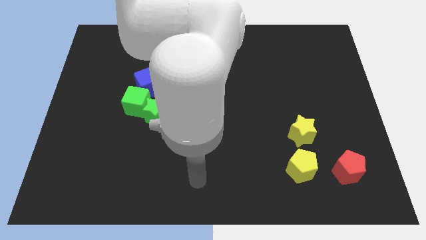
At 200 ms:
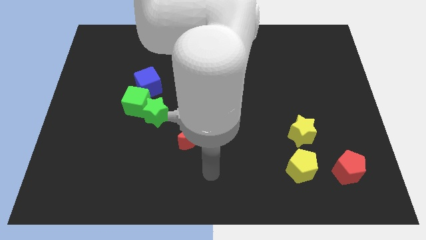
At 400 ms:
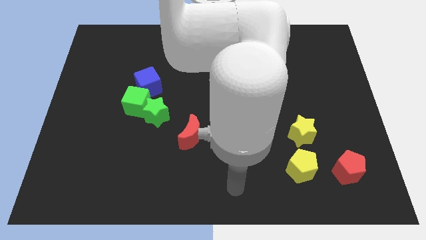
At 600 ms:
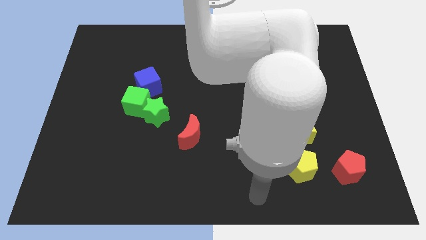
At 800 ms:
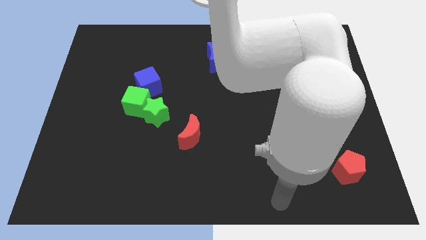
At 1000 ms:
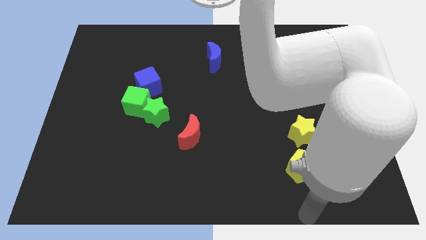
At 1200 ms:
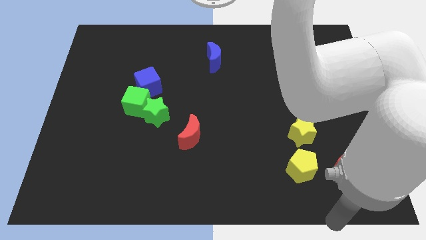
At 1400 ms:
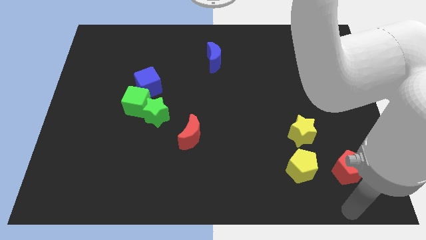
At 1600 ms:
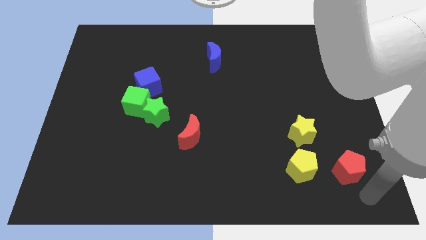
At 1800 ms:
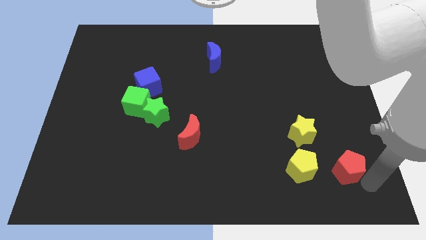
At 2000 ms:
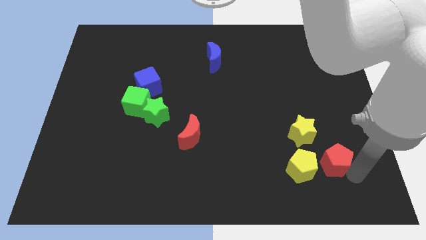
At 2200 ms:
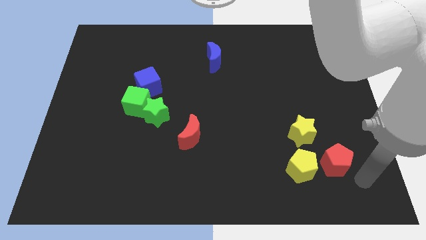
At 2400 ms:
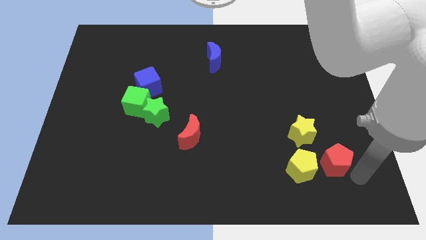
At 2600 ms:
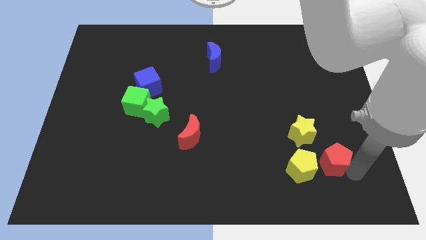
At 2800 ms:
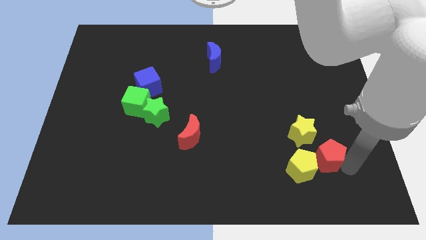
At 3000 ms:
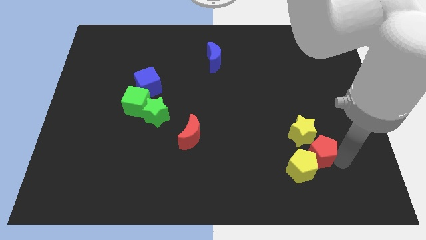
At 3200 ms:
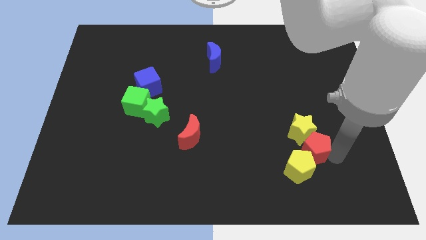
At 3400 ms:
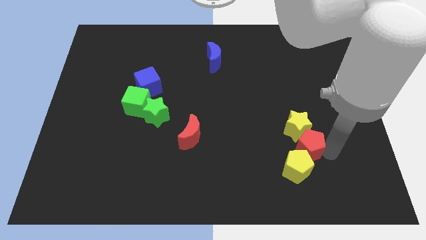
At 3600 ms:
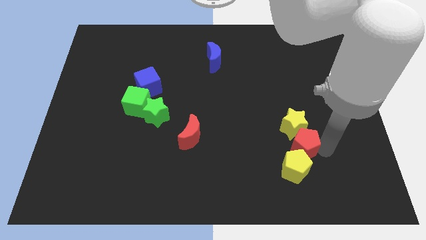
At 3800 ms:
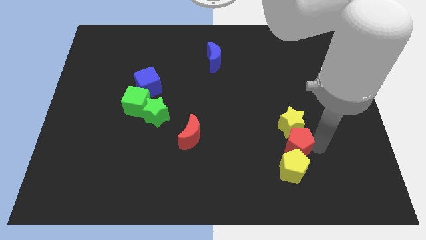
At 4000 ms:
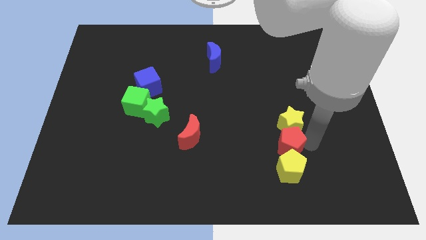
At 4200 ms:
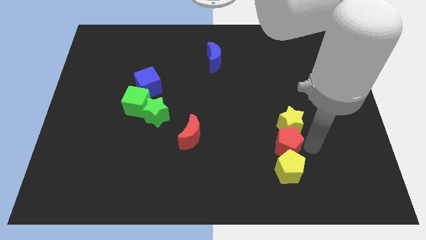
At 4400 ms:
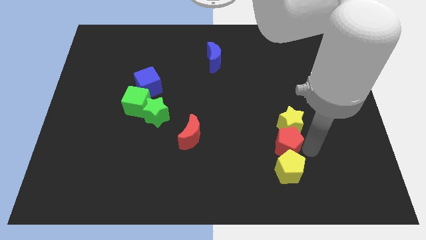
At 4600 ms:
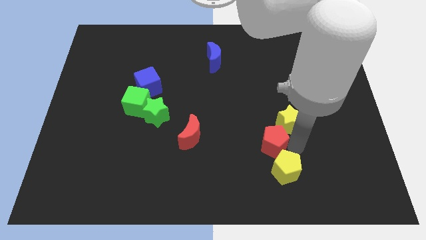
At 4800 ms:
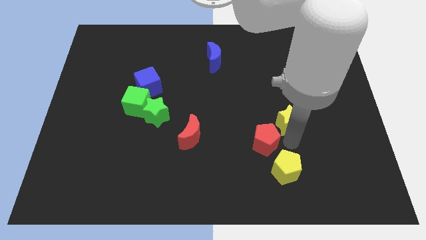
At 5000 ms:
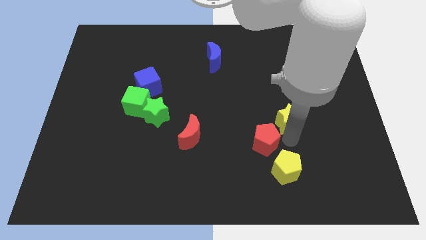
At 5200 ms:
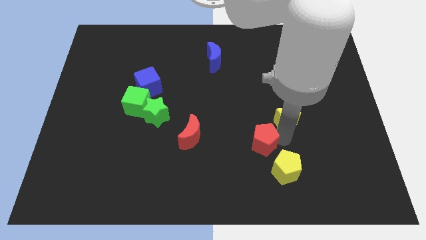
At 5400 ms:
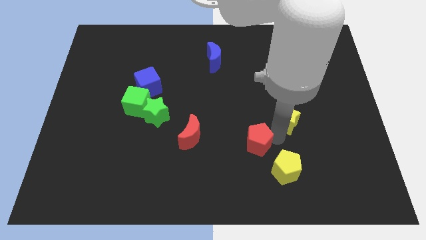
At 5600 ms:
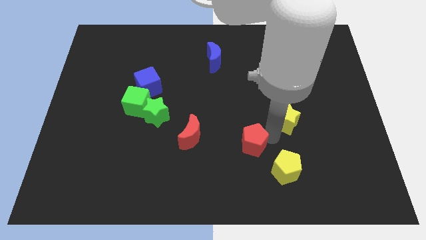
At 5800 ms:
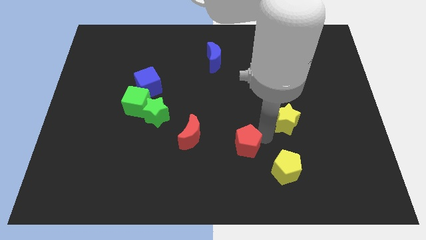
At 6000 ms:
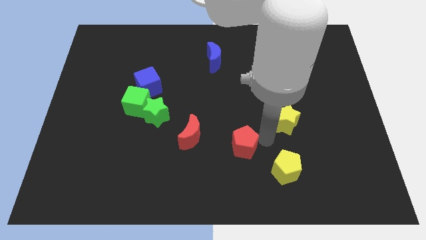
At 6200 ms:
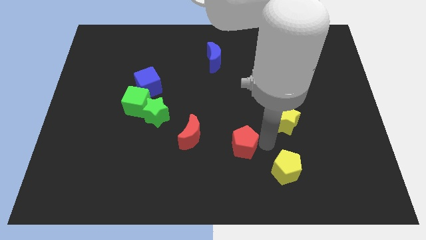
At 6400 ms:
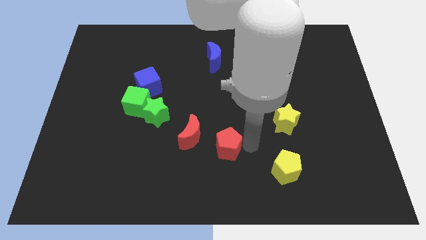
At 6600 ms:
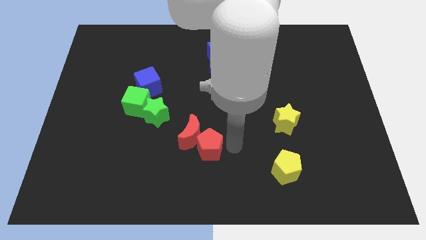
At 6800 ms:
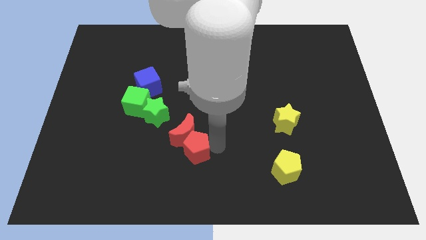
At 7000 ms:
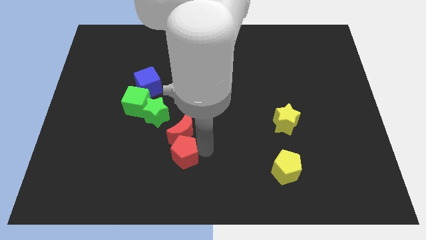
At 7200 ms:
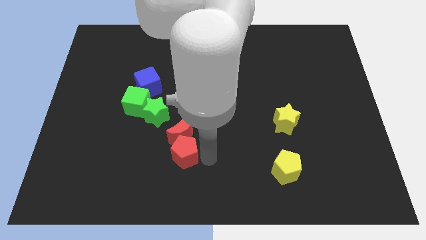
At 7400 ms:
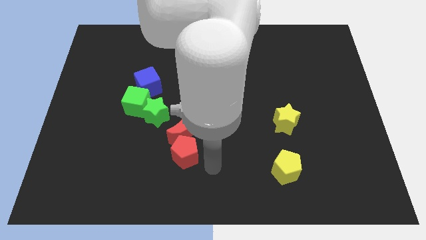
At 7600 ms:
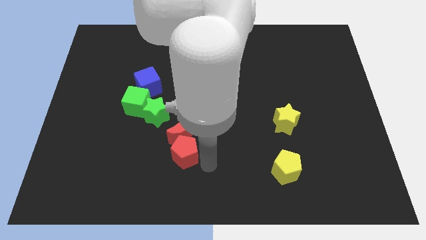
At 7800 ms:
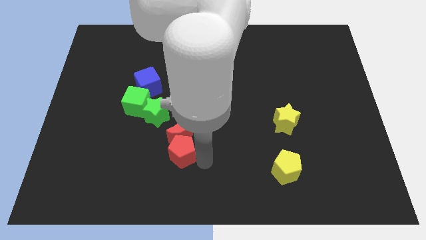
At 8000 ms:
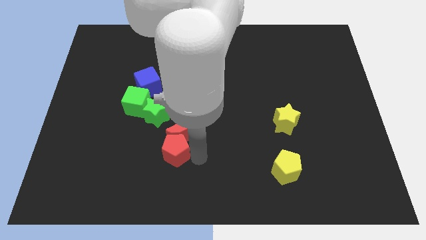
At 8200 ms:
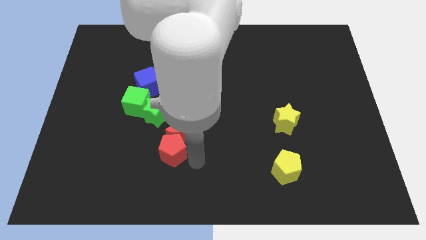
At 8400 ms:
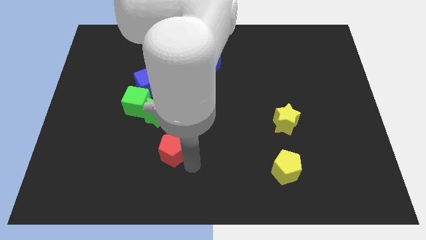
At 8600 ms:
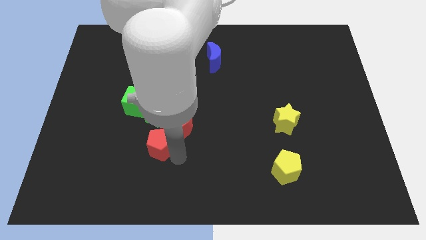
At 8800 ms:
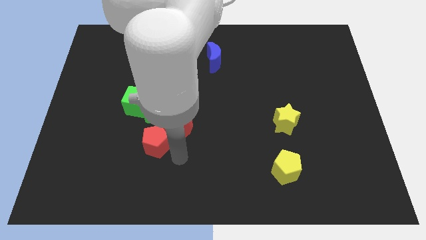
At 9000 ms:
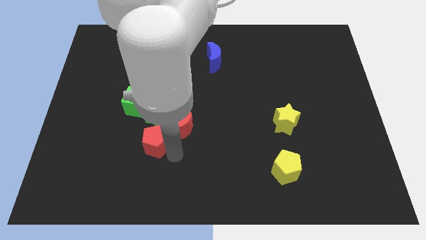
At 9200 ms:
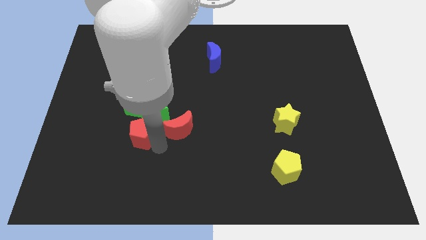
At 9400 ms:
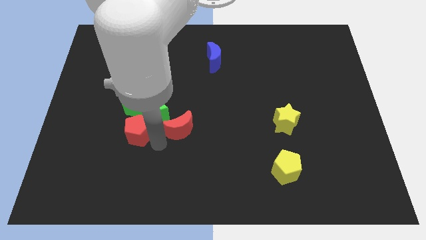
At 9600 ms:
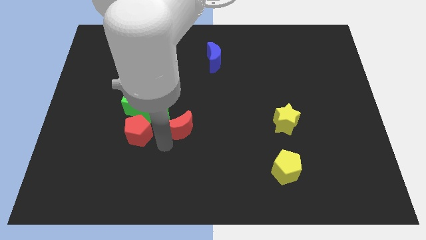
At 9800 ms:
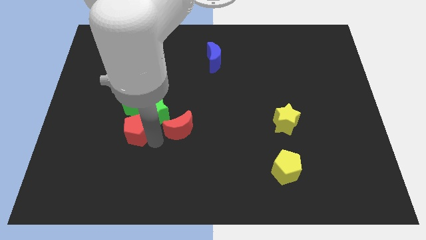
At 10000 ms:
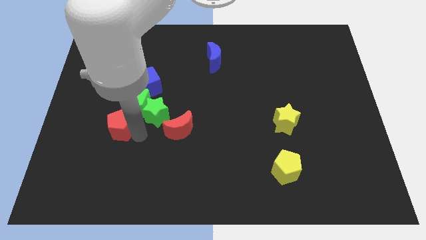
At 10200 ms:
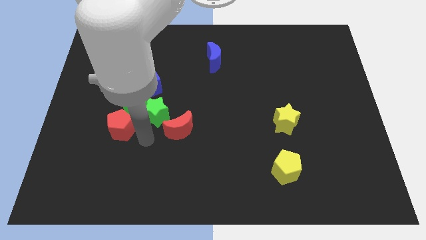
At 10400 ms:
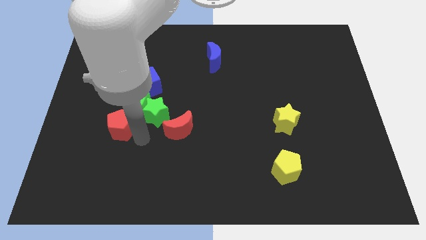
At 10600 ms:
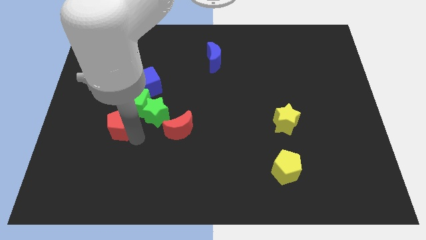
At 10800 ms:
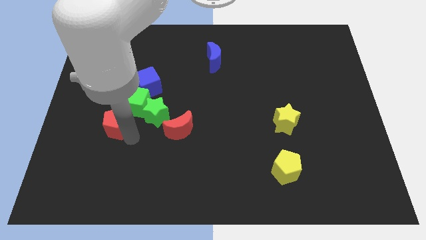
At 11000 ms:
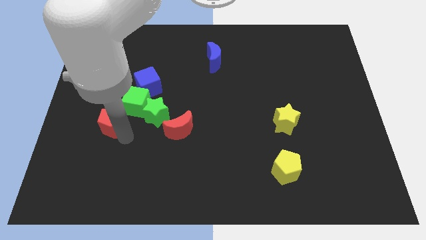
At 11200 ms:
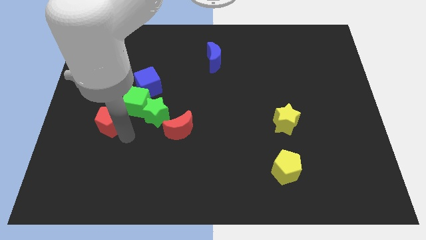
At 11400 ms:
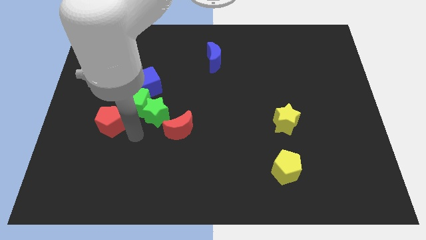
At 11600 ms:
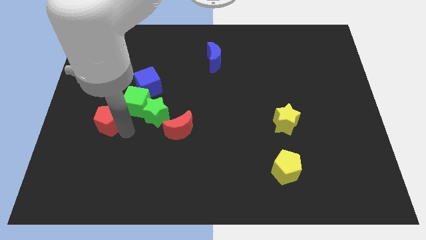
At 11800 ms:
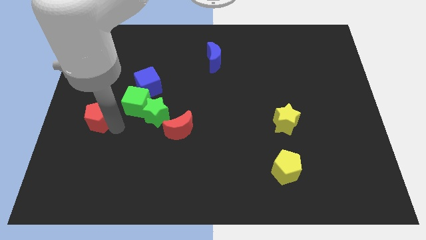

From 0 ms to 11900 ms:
push the red pentagon to the left side of the board
